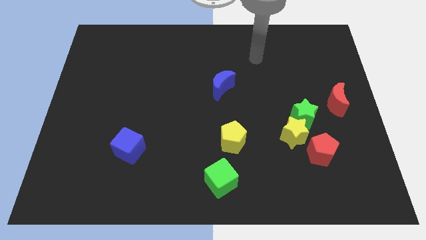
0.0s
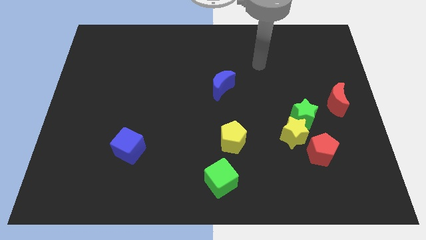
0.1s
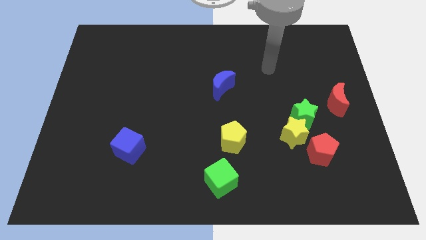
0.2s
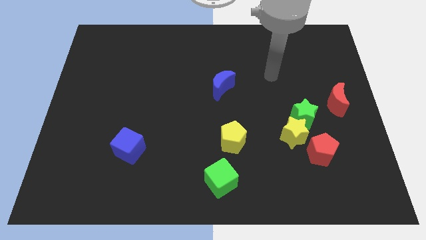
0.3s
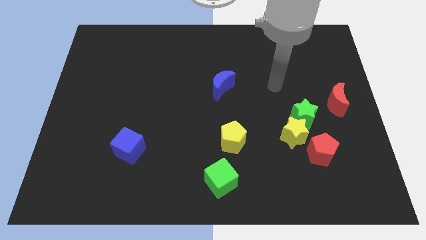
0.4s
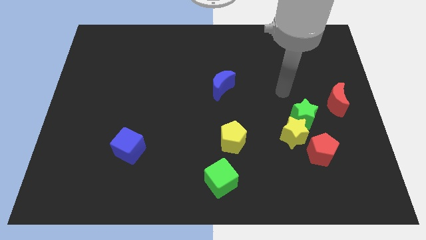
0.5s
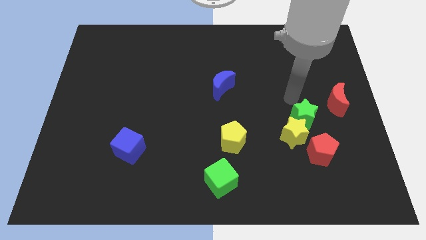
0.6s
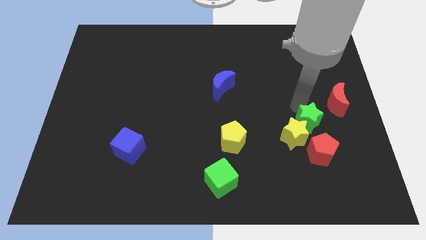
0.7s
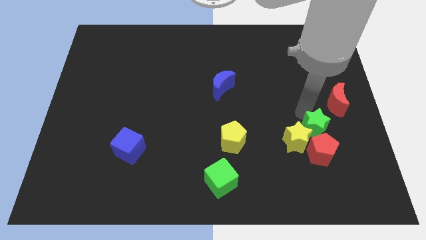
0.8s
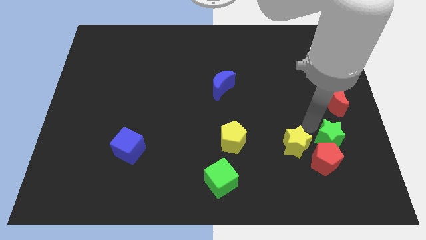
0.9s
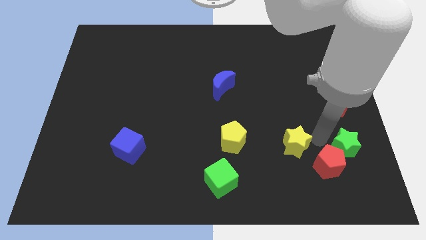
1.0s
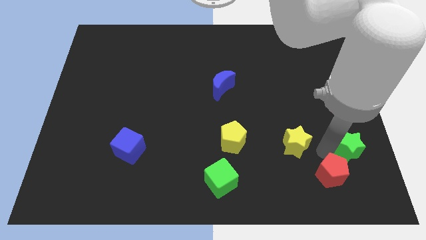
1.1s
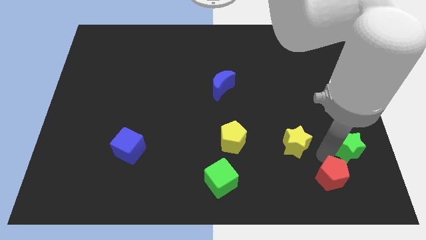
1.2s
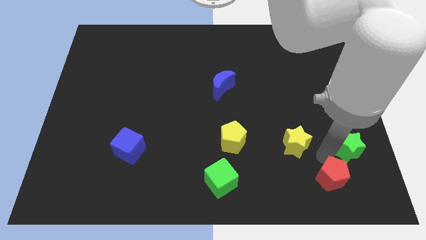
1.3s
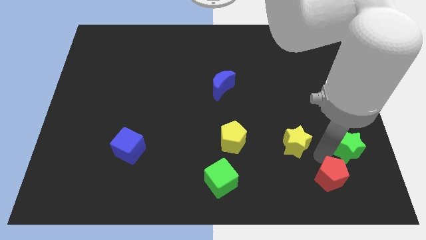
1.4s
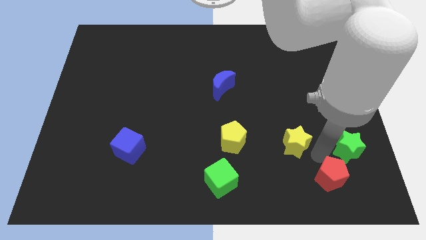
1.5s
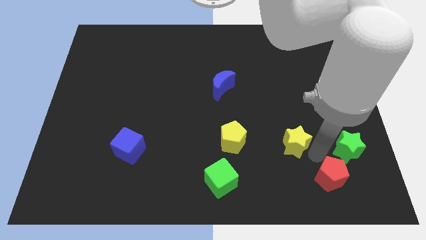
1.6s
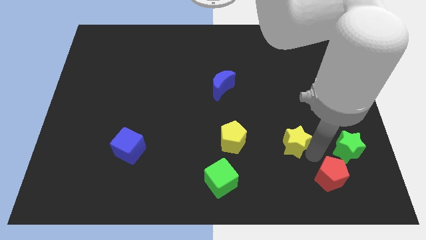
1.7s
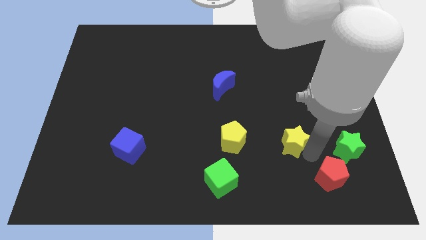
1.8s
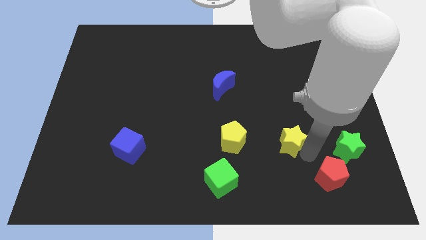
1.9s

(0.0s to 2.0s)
pull the yellow star apart from the green star and red pentagon

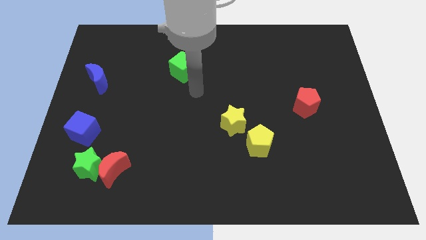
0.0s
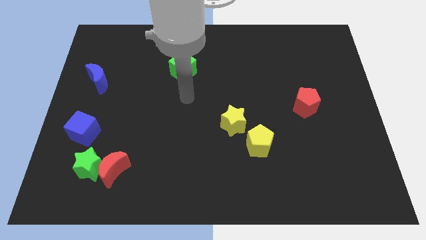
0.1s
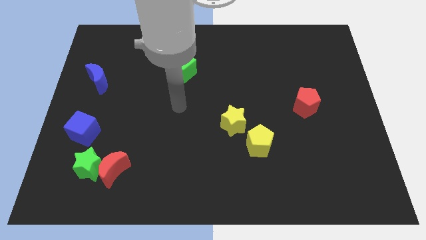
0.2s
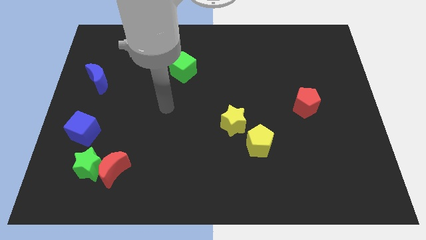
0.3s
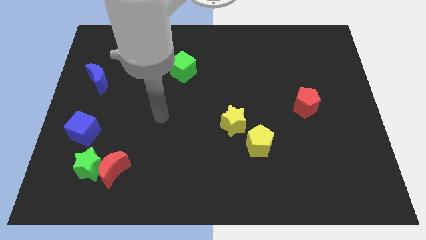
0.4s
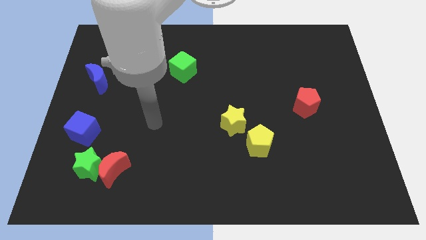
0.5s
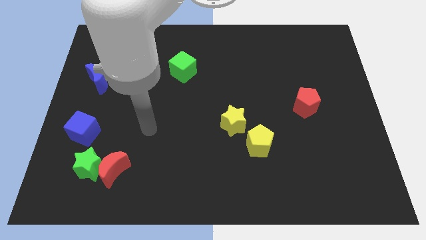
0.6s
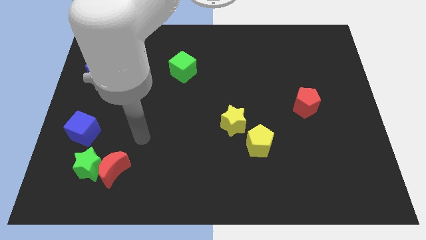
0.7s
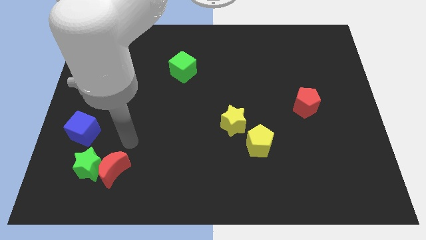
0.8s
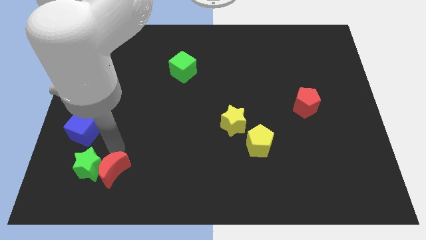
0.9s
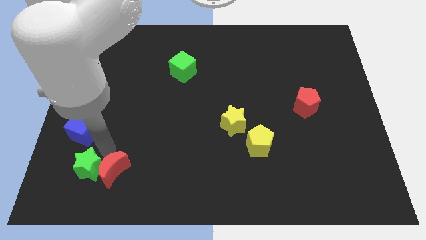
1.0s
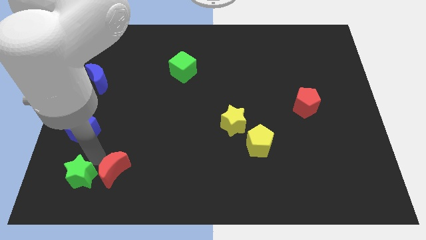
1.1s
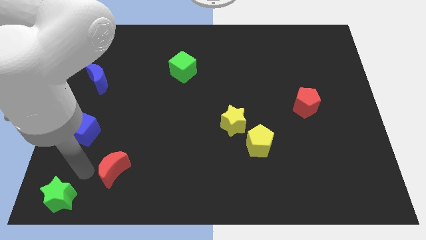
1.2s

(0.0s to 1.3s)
separate the red moon from the green star

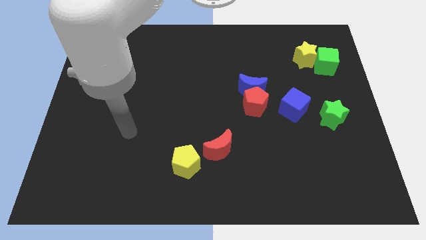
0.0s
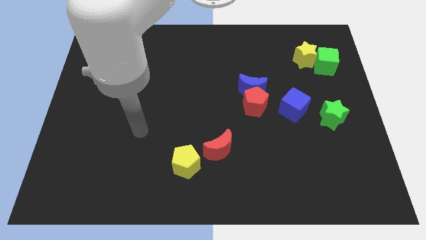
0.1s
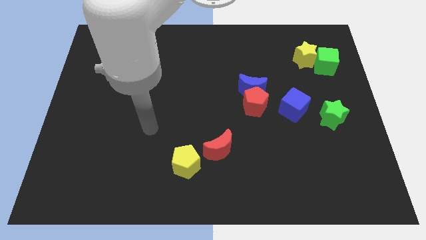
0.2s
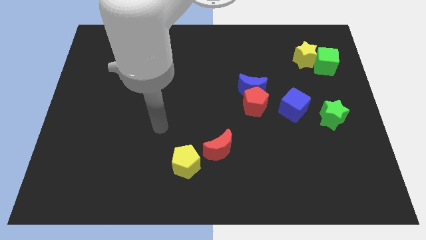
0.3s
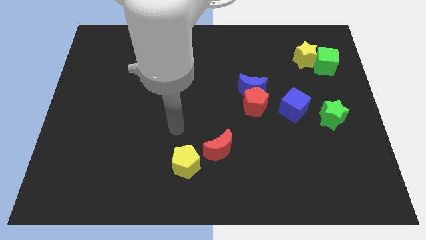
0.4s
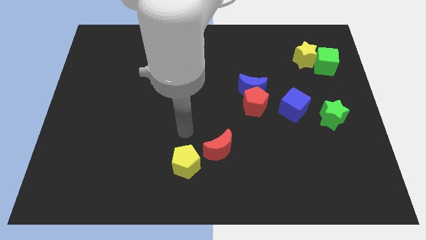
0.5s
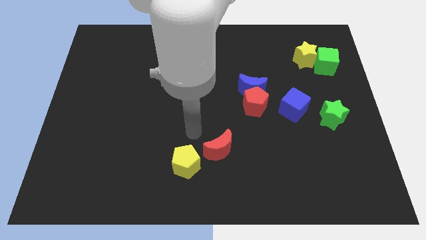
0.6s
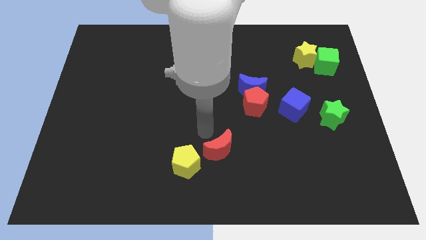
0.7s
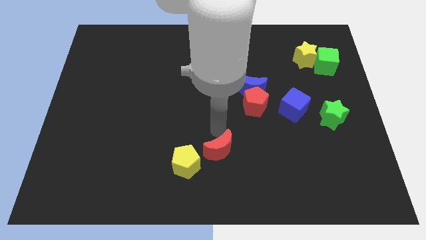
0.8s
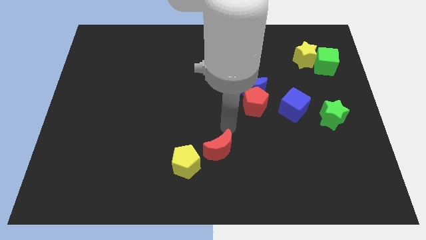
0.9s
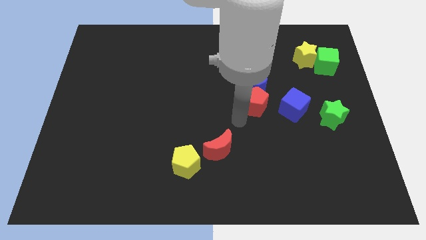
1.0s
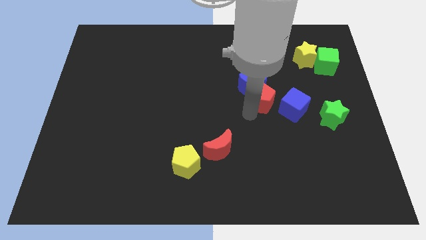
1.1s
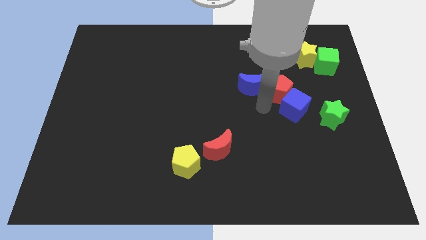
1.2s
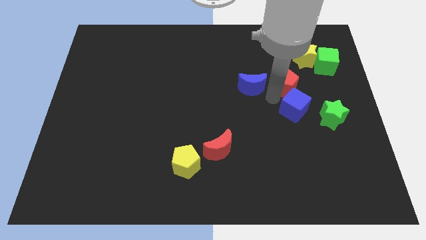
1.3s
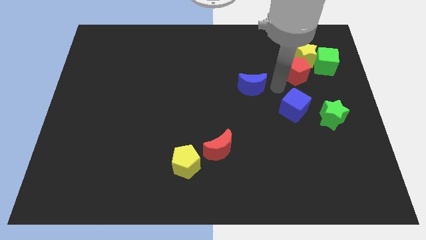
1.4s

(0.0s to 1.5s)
move the blue moon away from the red pentagon

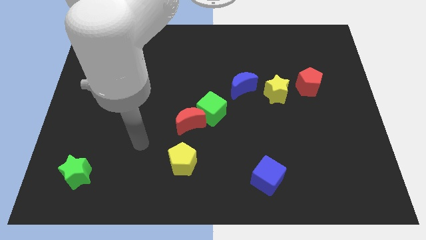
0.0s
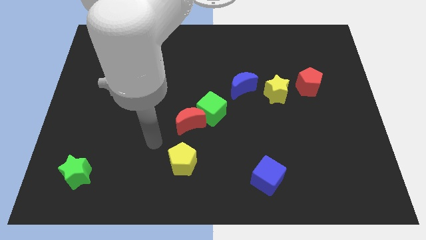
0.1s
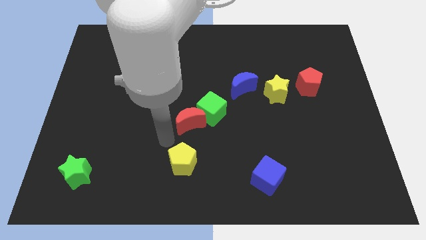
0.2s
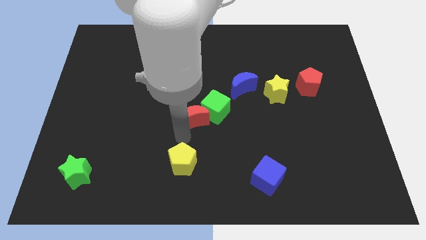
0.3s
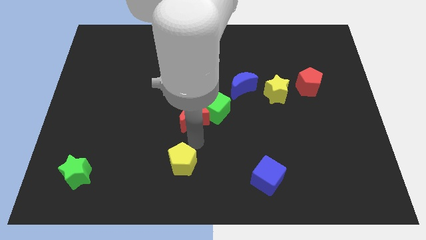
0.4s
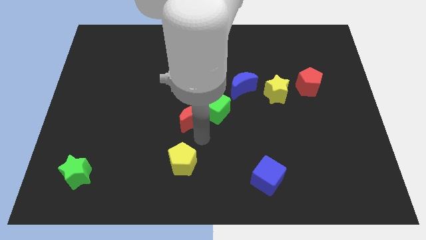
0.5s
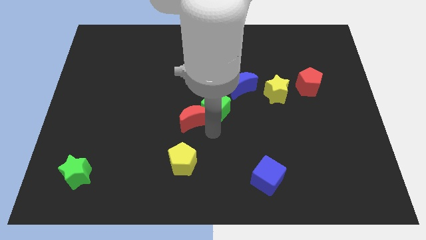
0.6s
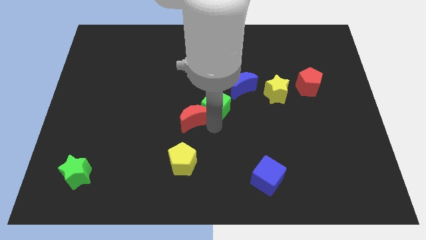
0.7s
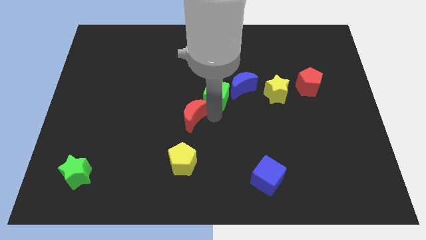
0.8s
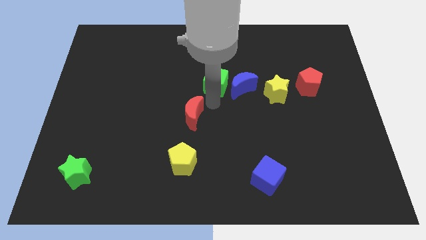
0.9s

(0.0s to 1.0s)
move the red moon away from the green cube

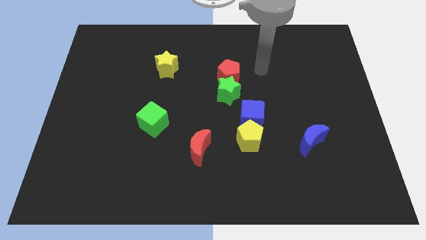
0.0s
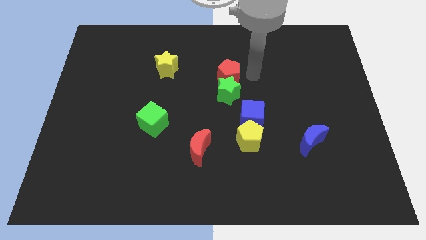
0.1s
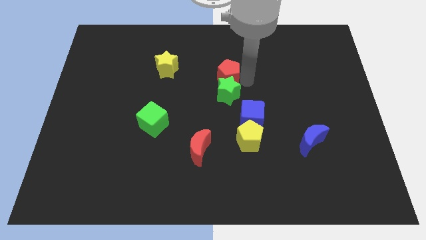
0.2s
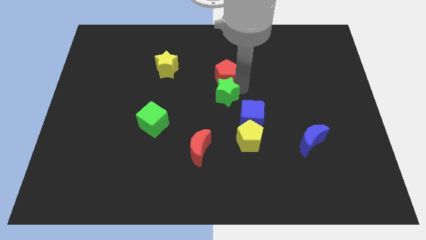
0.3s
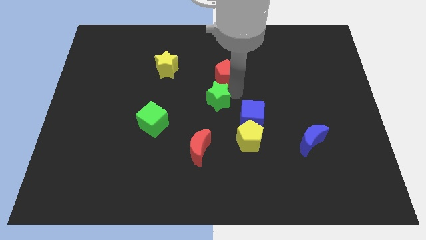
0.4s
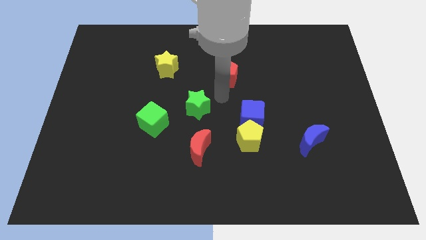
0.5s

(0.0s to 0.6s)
move the red pentagon away from the green star

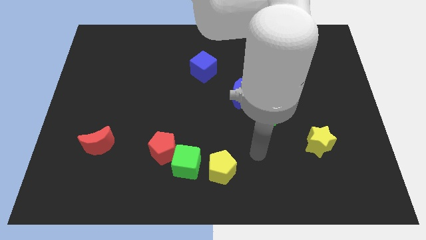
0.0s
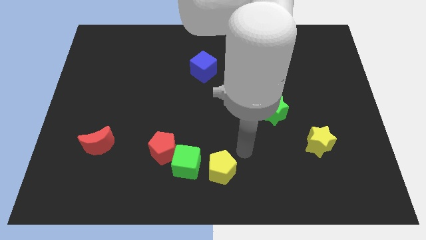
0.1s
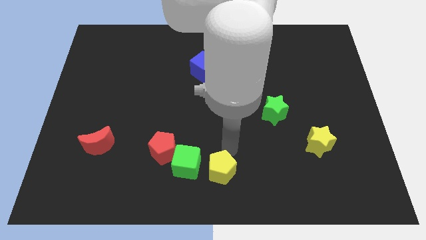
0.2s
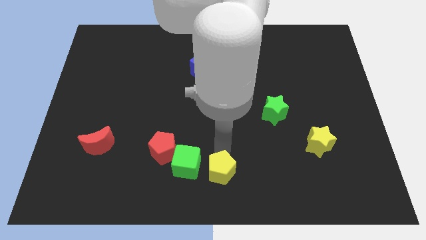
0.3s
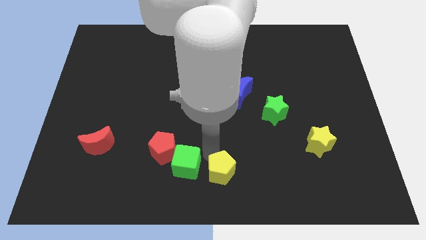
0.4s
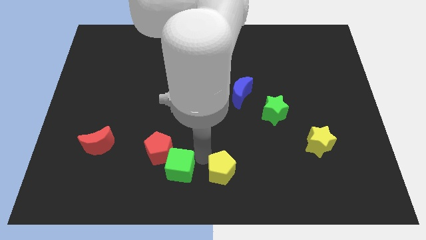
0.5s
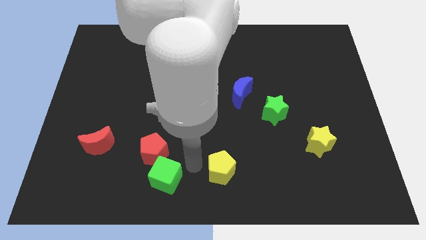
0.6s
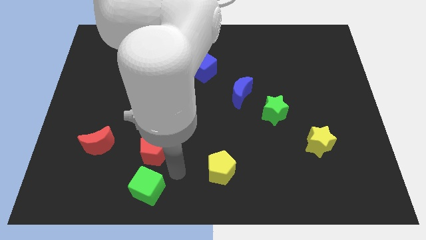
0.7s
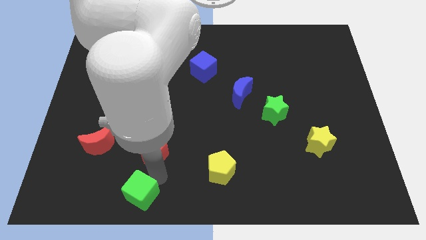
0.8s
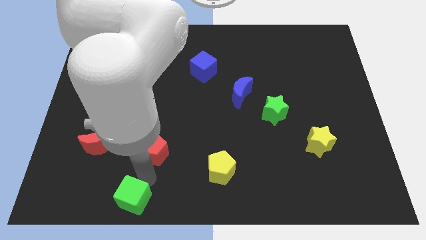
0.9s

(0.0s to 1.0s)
pull the red pentagon apart from the green cube

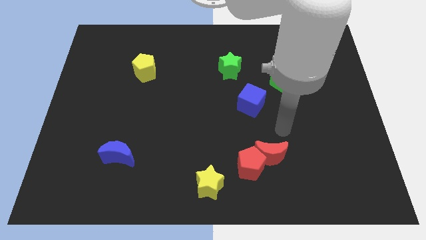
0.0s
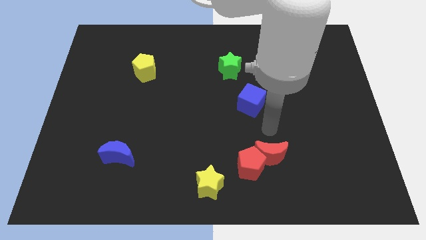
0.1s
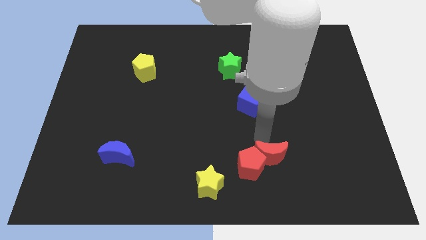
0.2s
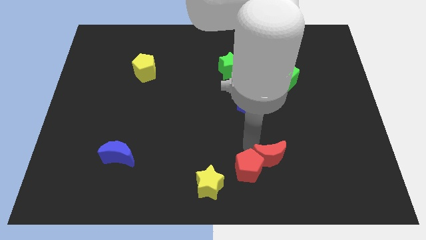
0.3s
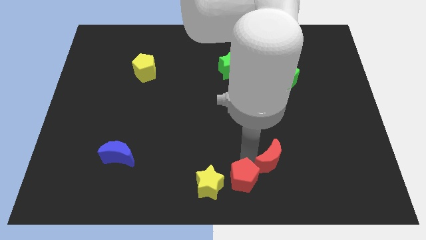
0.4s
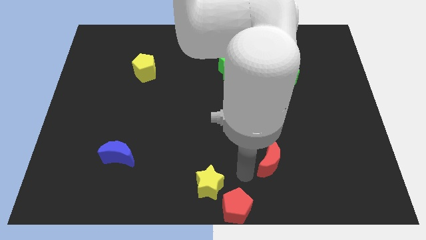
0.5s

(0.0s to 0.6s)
pull the red moon apart from the red pentagon

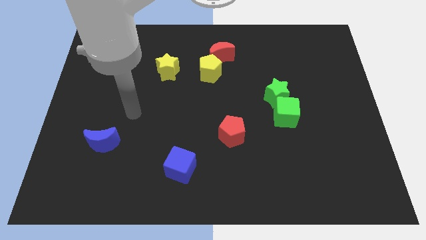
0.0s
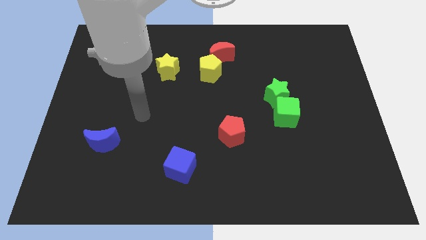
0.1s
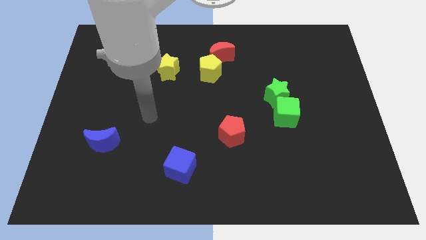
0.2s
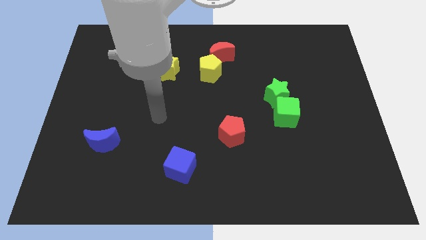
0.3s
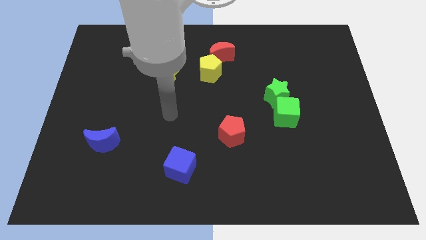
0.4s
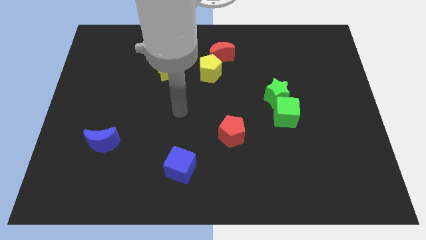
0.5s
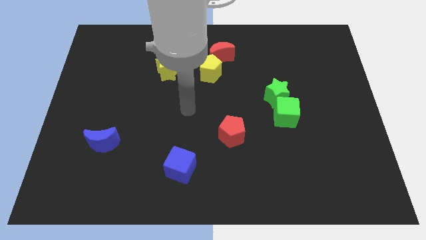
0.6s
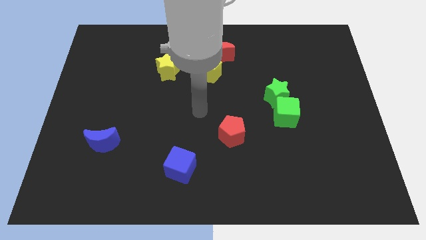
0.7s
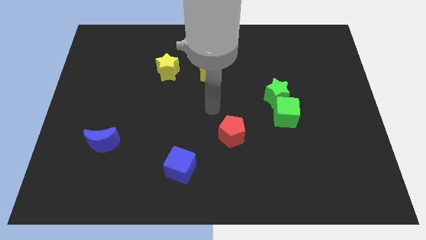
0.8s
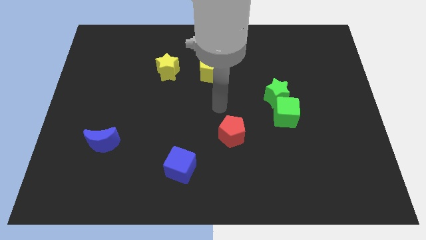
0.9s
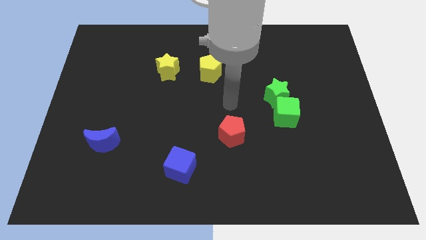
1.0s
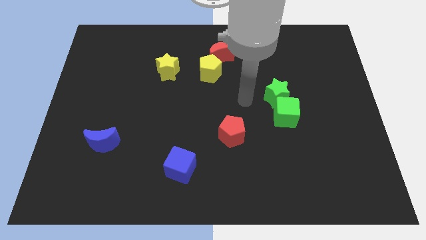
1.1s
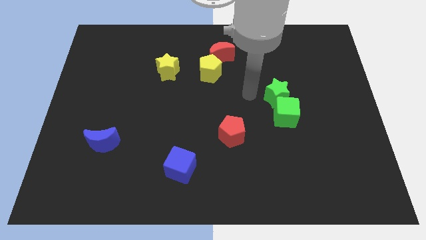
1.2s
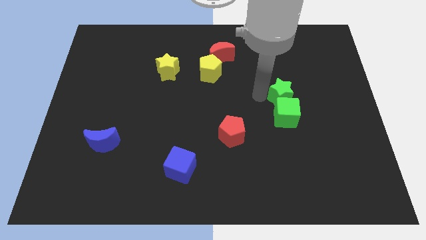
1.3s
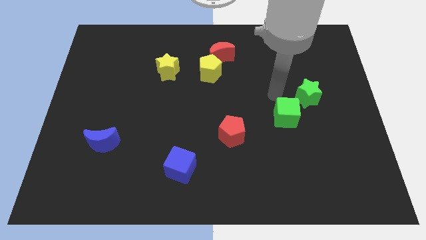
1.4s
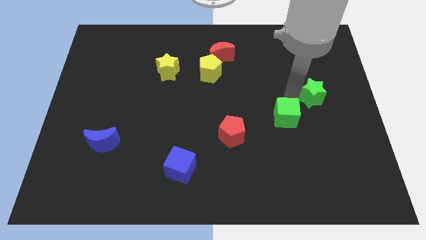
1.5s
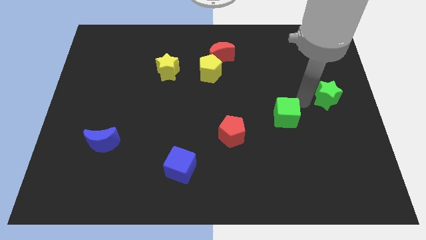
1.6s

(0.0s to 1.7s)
move the green cube away from the green star
